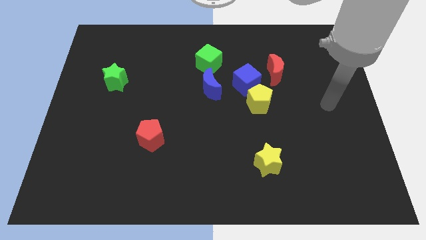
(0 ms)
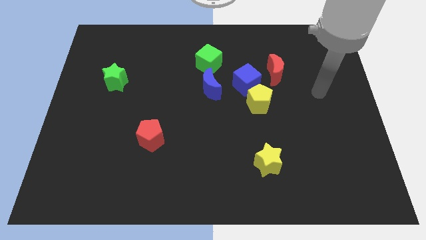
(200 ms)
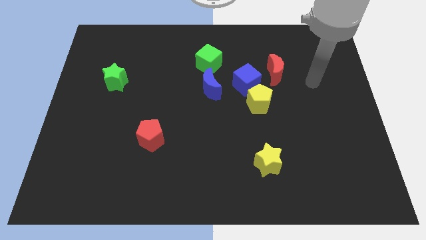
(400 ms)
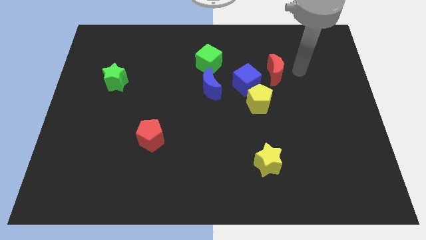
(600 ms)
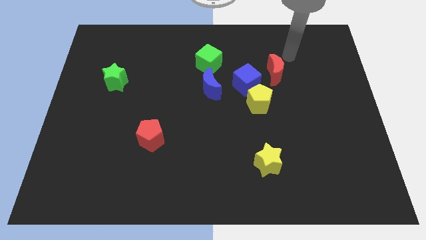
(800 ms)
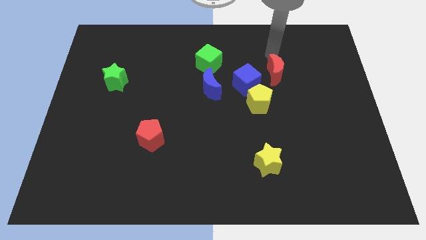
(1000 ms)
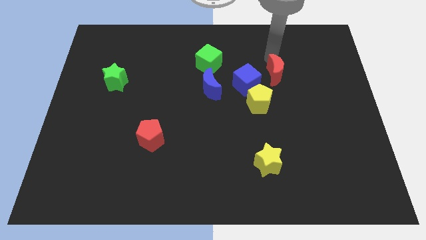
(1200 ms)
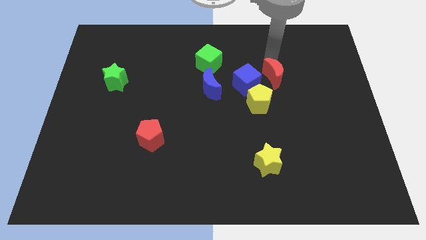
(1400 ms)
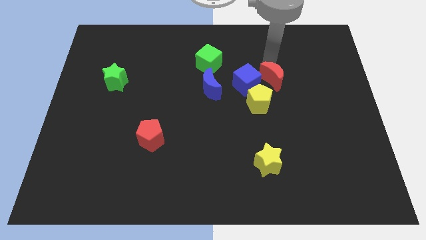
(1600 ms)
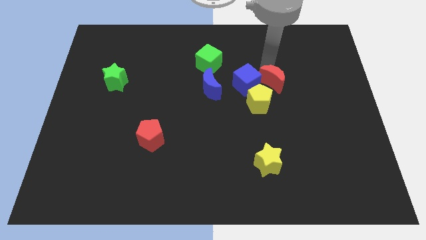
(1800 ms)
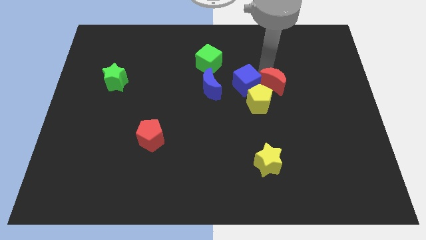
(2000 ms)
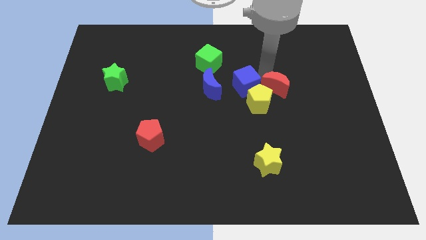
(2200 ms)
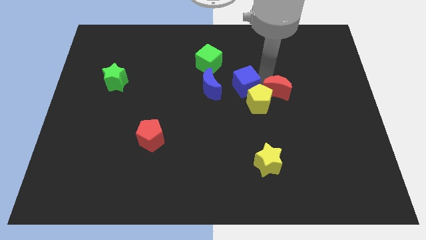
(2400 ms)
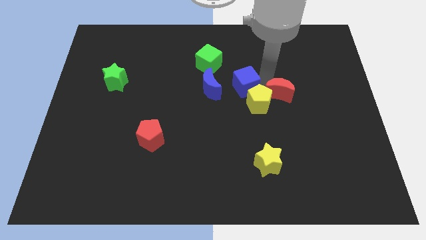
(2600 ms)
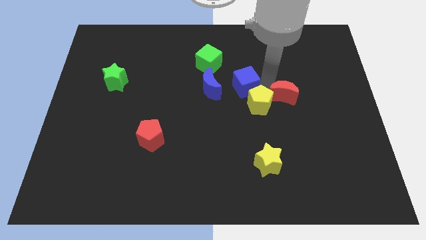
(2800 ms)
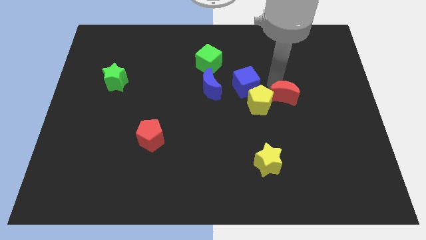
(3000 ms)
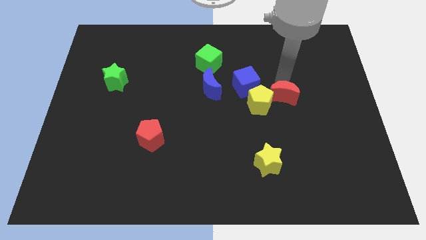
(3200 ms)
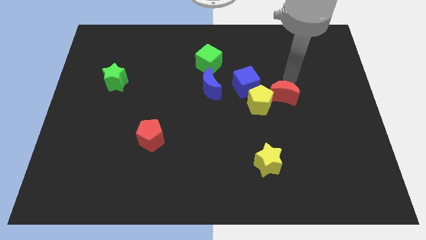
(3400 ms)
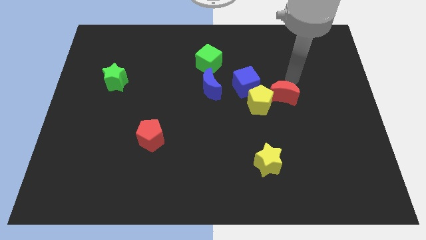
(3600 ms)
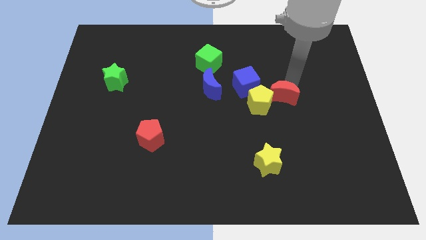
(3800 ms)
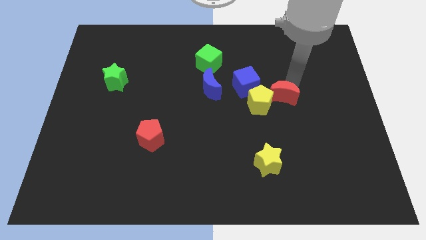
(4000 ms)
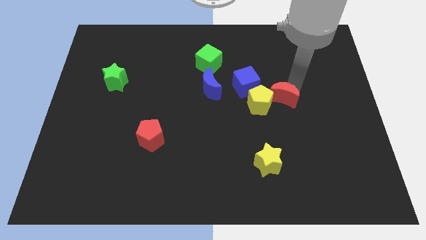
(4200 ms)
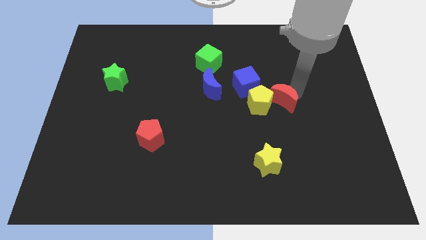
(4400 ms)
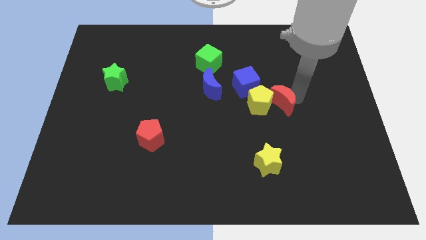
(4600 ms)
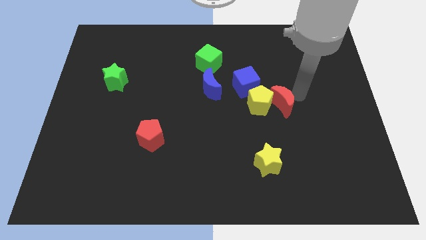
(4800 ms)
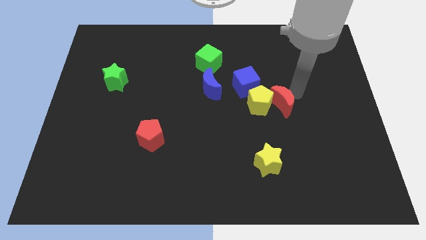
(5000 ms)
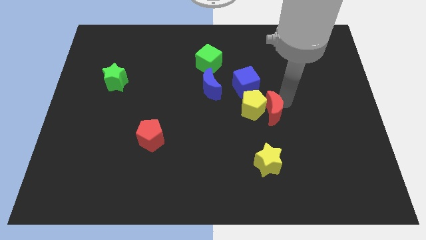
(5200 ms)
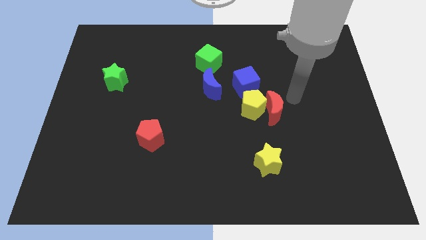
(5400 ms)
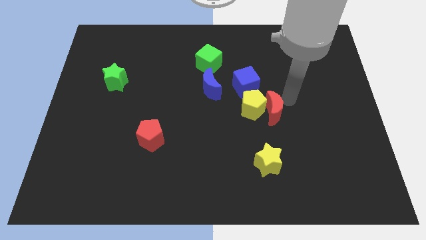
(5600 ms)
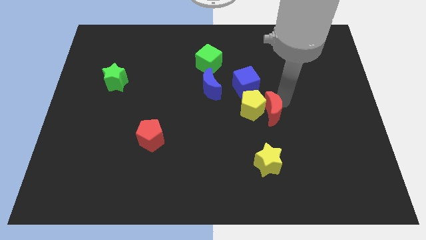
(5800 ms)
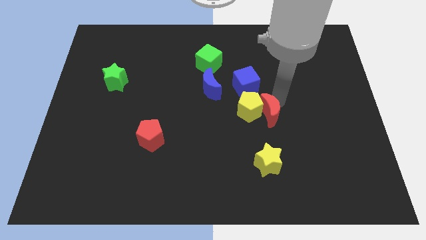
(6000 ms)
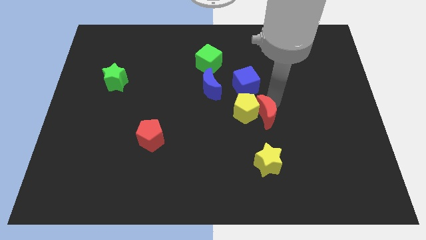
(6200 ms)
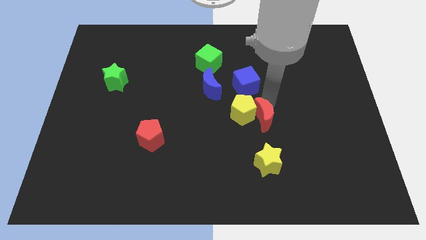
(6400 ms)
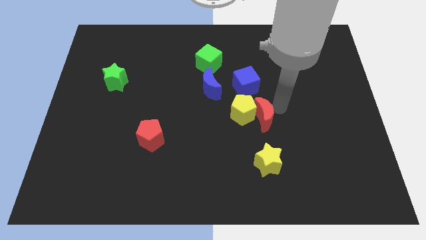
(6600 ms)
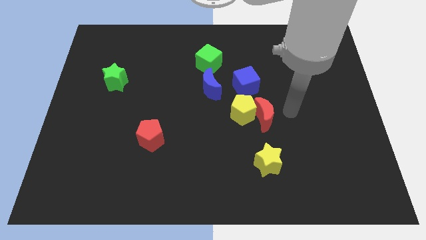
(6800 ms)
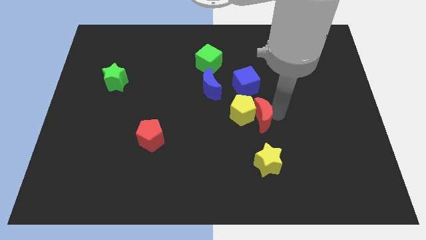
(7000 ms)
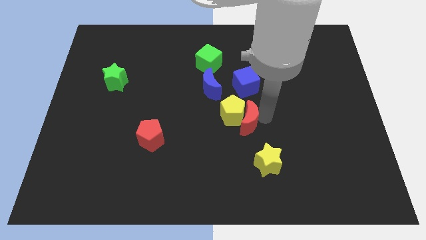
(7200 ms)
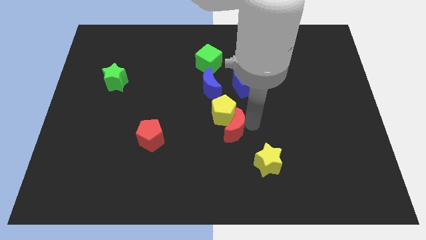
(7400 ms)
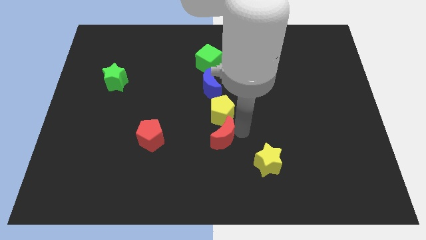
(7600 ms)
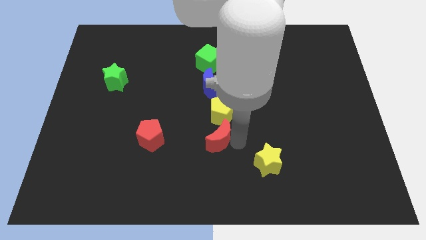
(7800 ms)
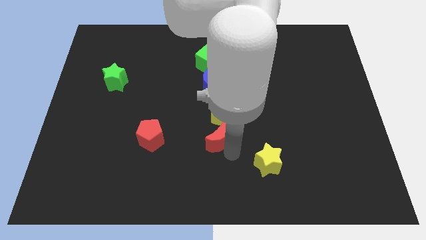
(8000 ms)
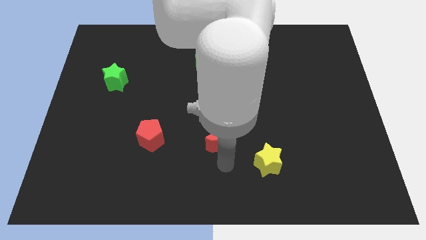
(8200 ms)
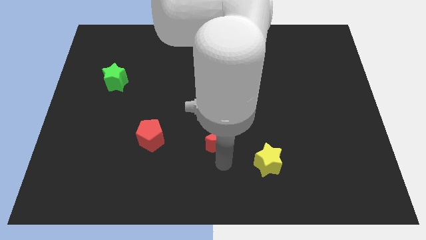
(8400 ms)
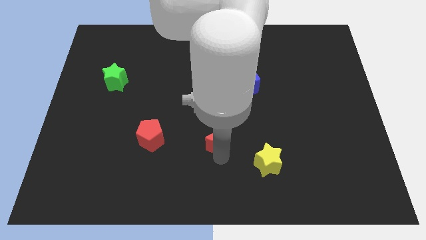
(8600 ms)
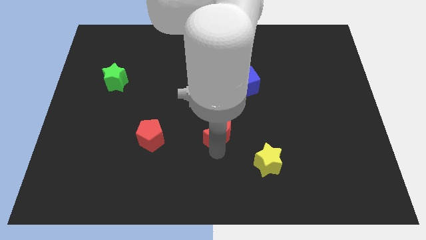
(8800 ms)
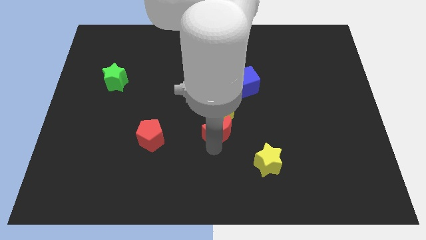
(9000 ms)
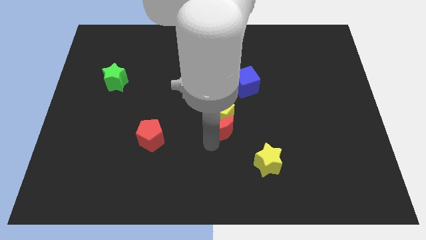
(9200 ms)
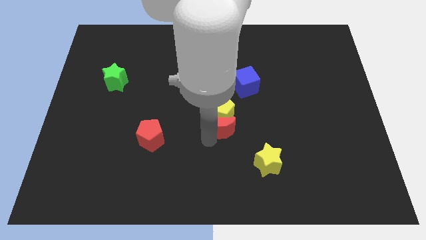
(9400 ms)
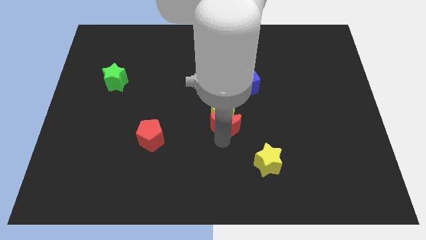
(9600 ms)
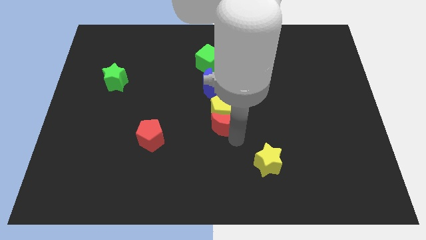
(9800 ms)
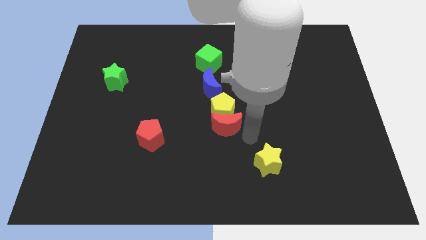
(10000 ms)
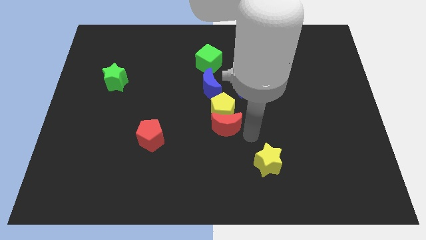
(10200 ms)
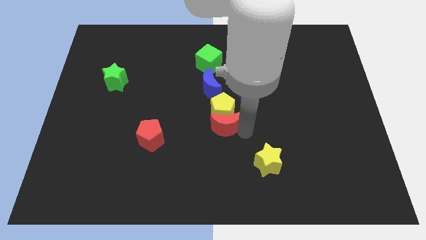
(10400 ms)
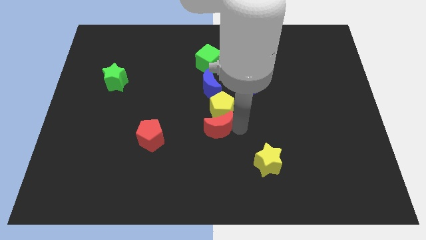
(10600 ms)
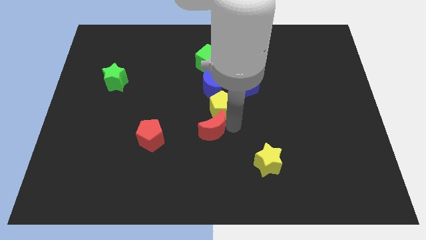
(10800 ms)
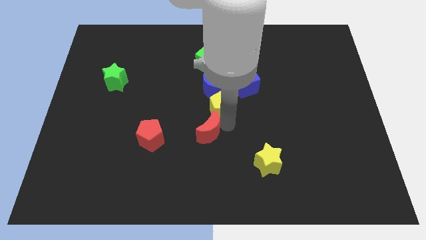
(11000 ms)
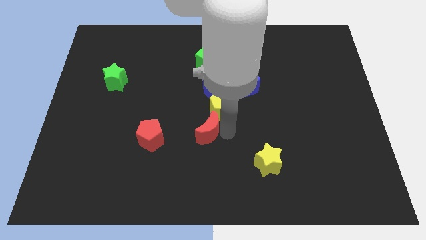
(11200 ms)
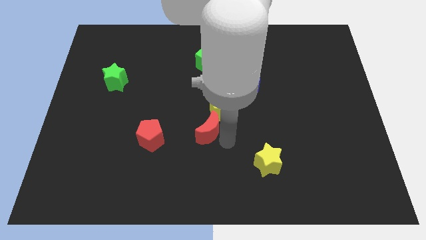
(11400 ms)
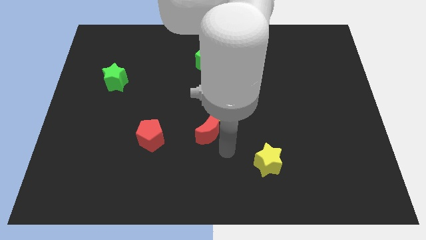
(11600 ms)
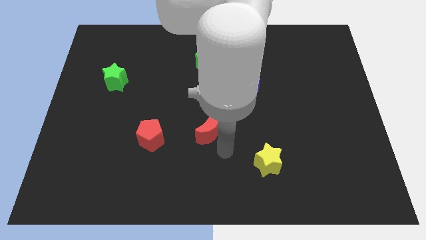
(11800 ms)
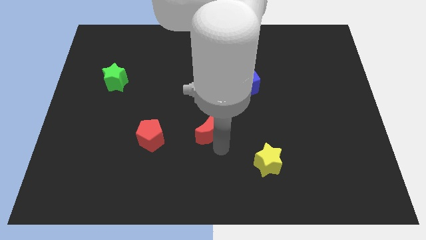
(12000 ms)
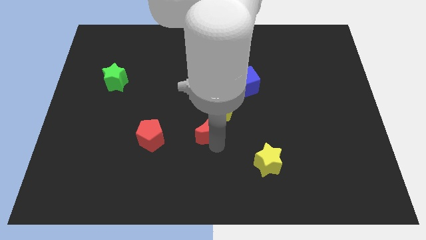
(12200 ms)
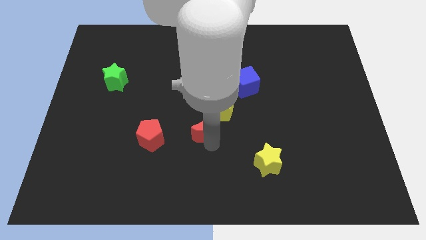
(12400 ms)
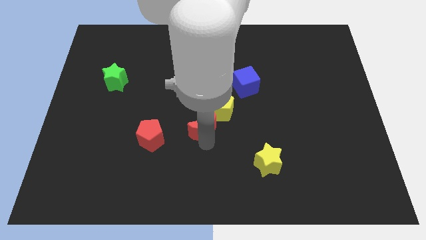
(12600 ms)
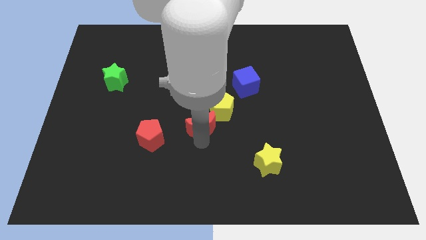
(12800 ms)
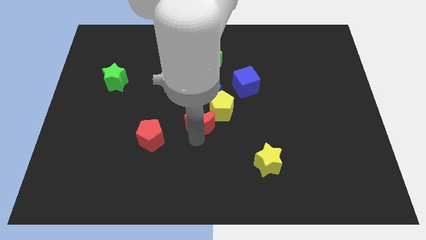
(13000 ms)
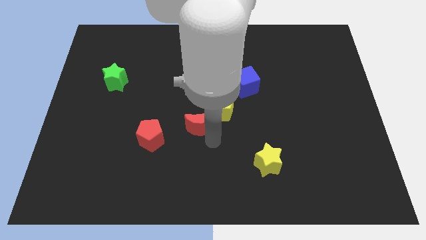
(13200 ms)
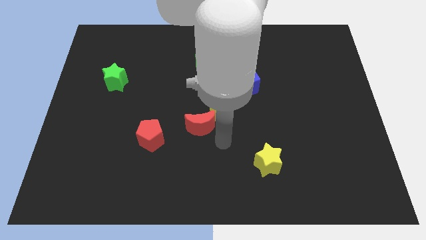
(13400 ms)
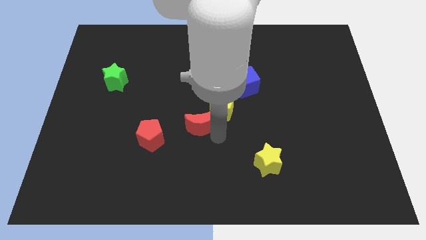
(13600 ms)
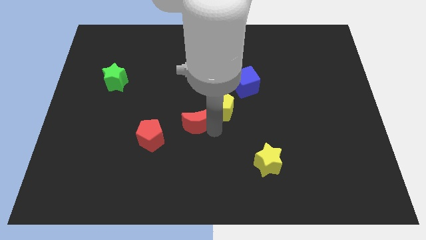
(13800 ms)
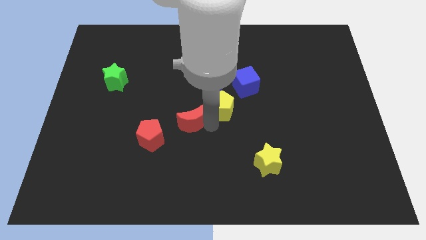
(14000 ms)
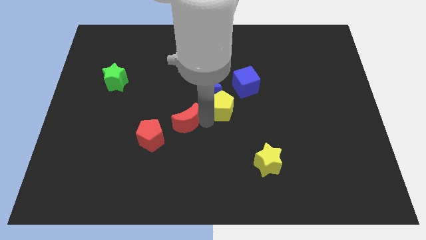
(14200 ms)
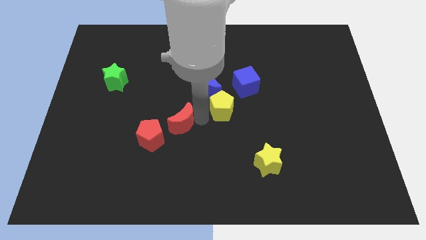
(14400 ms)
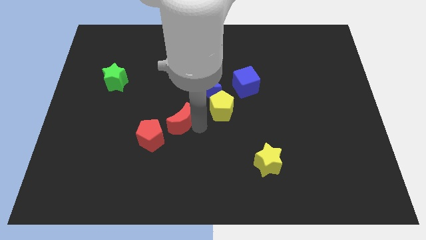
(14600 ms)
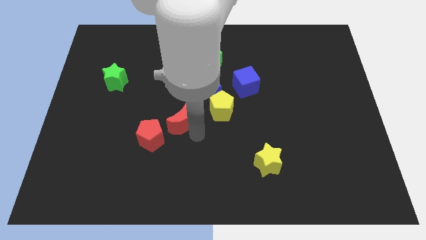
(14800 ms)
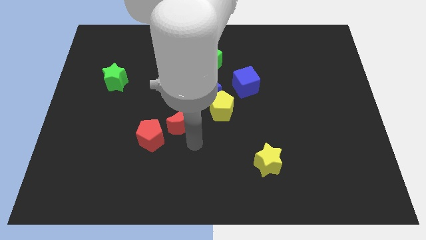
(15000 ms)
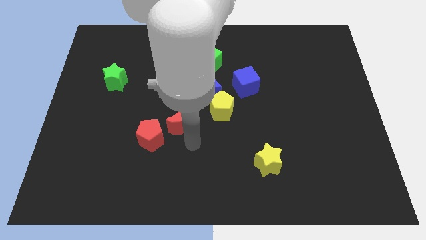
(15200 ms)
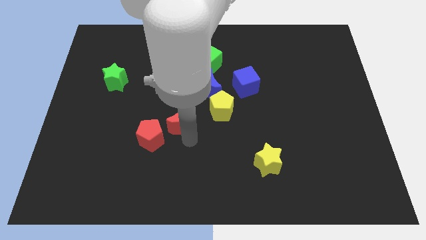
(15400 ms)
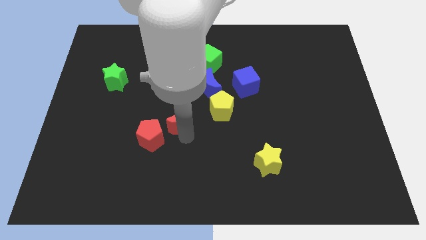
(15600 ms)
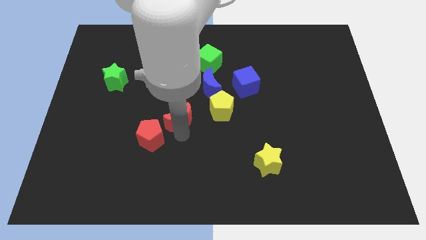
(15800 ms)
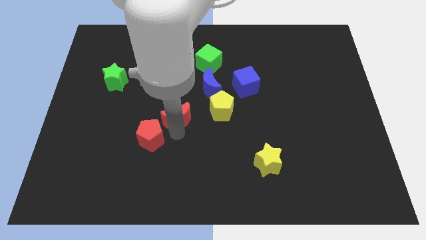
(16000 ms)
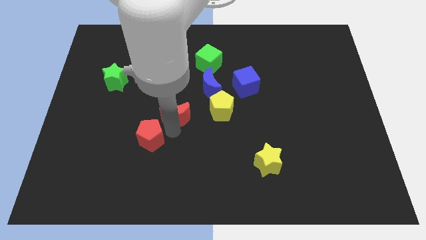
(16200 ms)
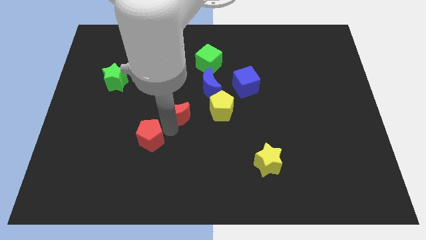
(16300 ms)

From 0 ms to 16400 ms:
slide the red moon to the top side of the red pentagon
